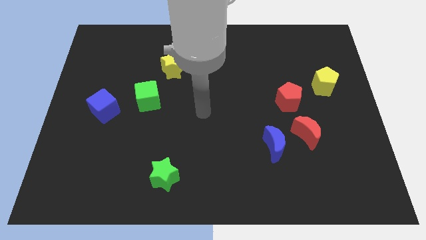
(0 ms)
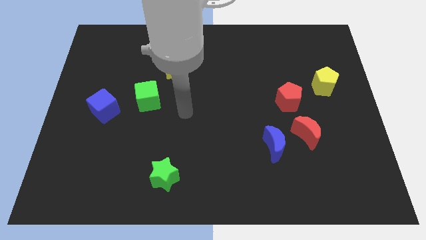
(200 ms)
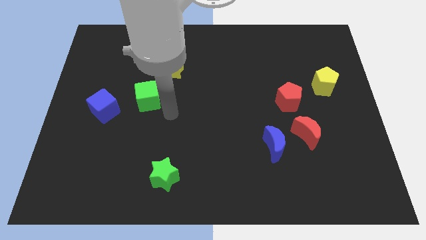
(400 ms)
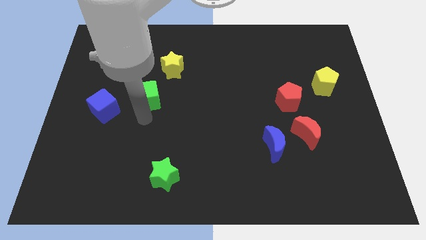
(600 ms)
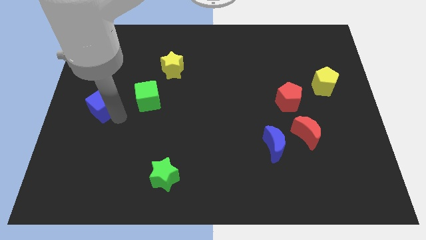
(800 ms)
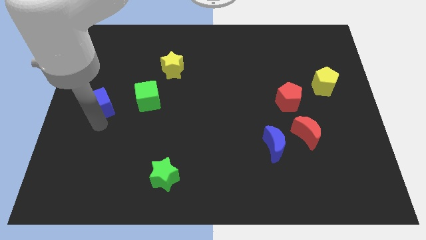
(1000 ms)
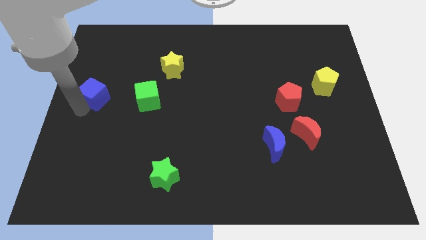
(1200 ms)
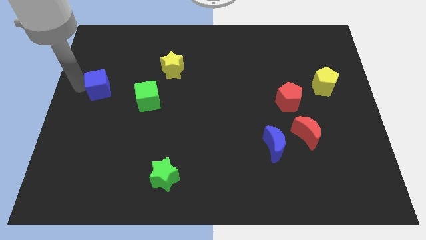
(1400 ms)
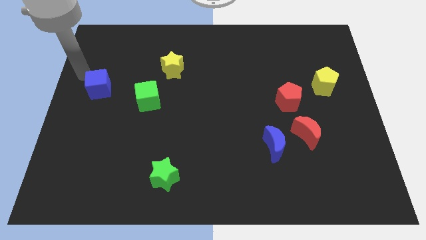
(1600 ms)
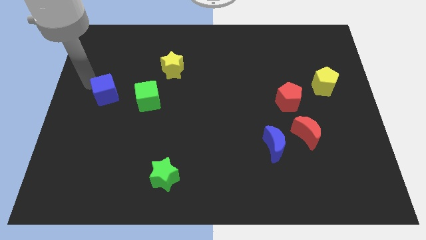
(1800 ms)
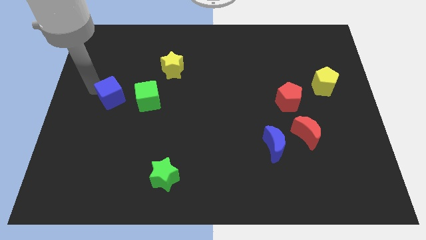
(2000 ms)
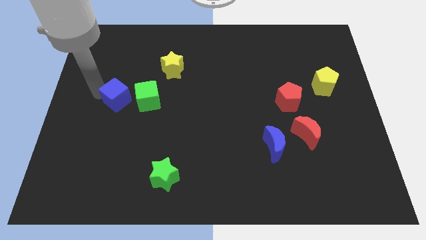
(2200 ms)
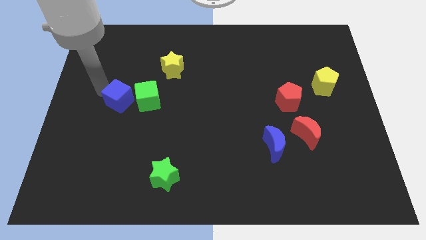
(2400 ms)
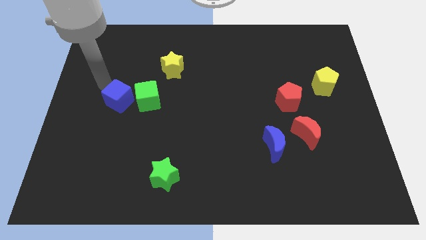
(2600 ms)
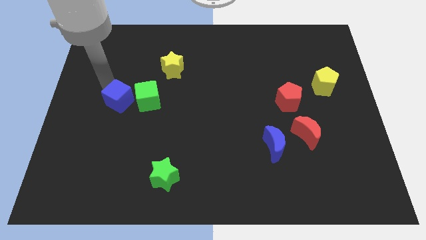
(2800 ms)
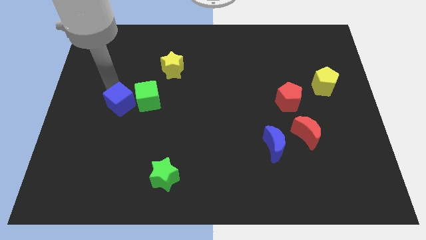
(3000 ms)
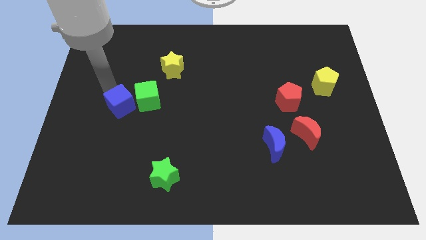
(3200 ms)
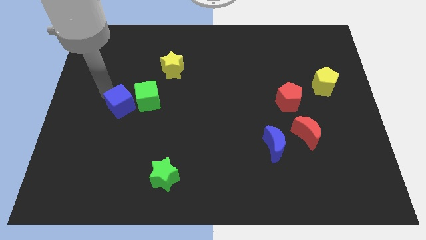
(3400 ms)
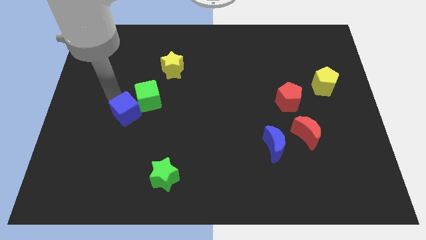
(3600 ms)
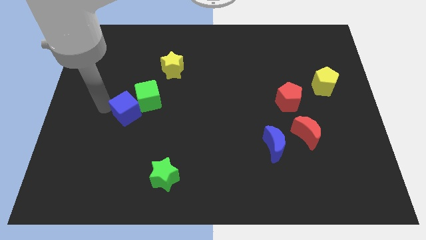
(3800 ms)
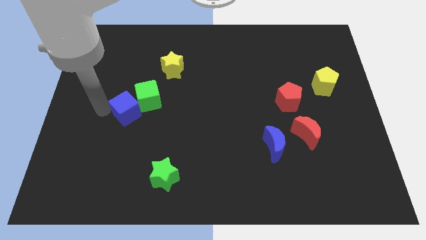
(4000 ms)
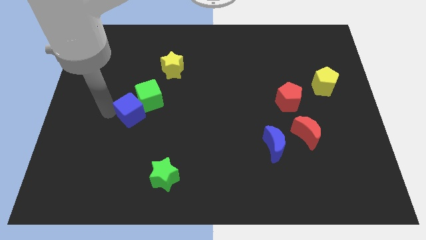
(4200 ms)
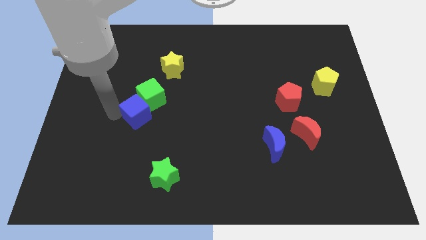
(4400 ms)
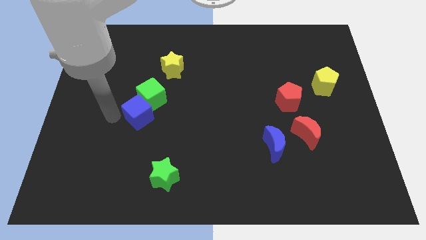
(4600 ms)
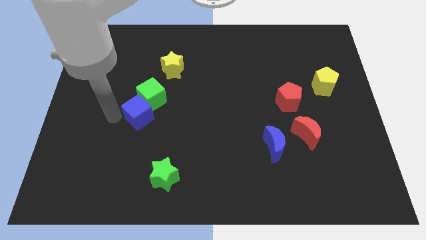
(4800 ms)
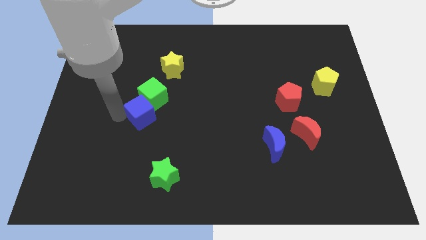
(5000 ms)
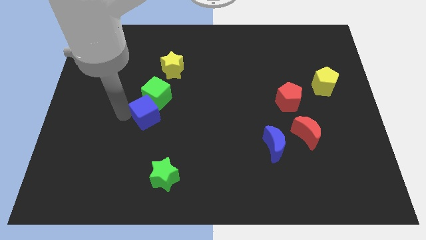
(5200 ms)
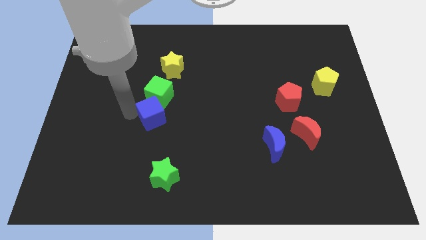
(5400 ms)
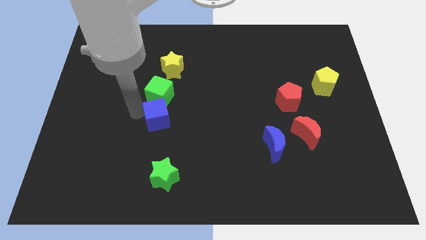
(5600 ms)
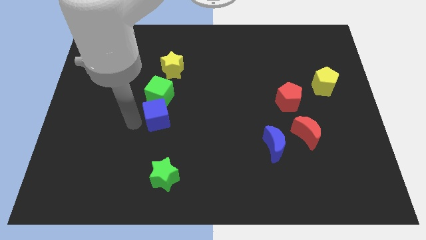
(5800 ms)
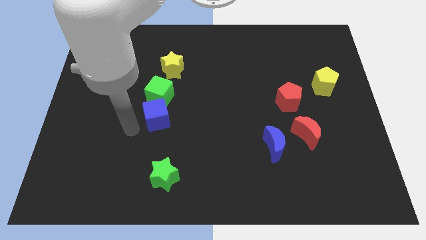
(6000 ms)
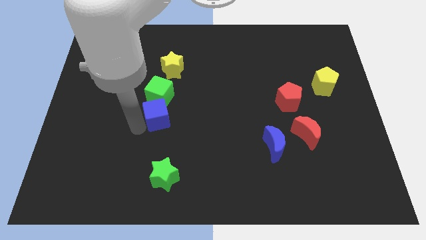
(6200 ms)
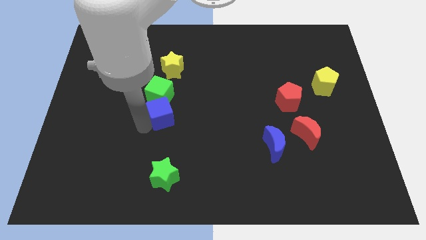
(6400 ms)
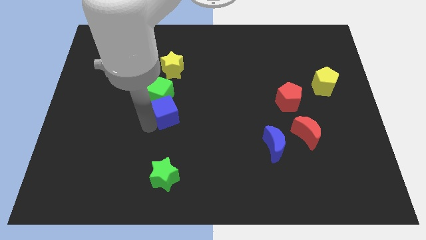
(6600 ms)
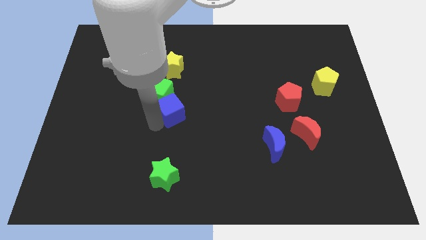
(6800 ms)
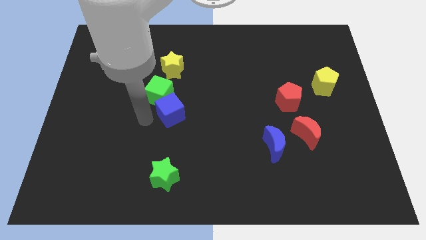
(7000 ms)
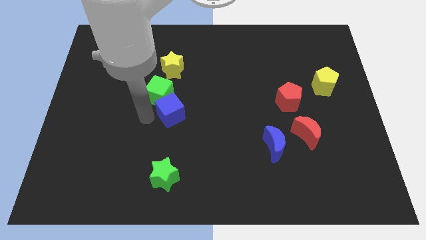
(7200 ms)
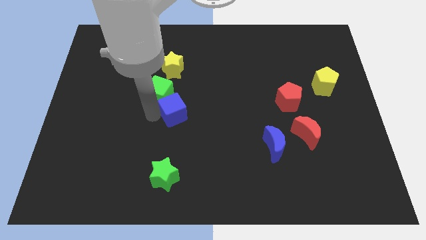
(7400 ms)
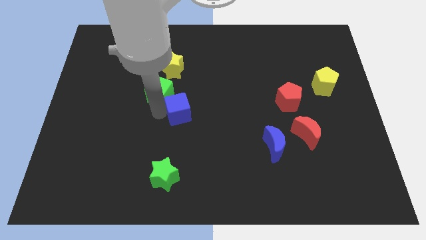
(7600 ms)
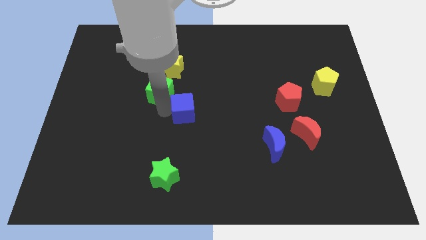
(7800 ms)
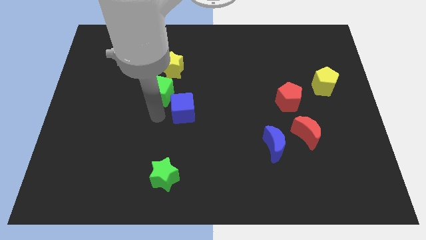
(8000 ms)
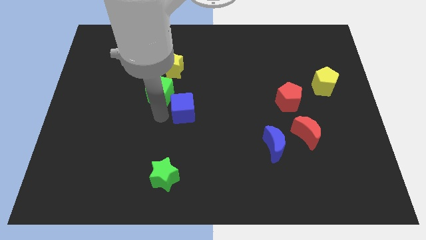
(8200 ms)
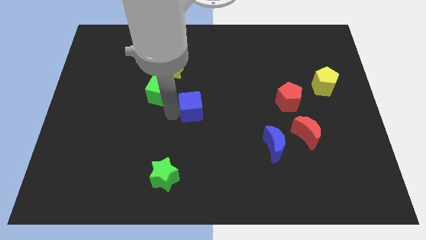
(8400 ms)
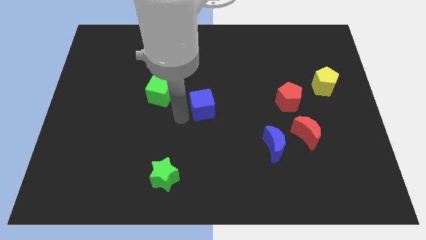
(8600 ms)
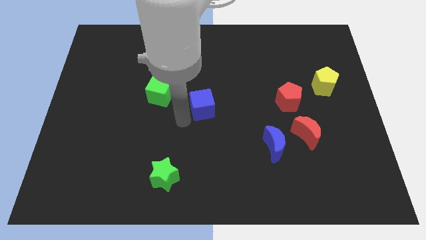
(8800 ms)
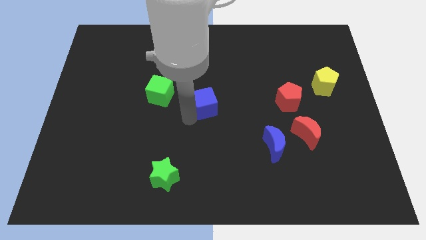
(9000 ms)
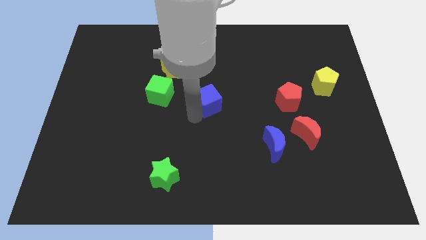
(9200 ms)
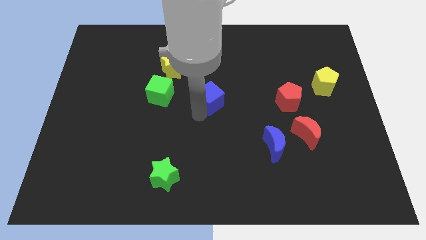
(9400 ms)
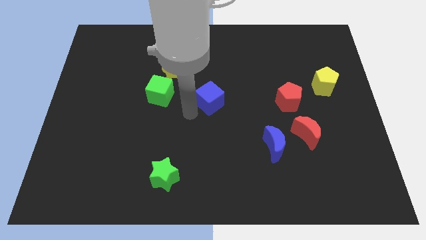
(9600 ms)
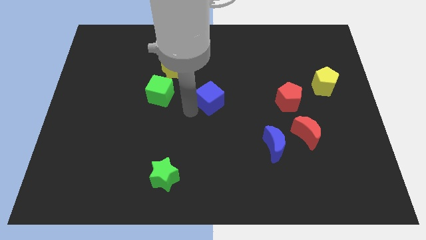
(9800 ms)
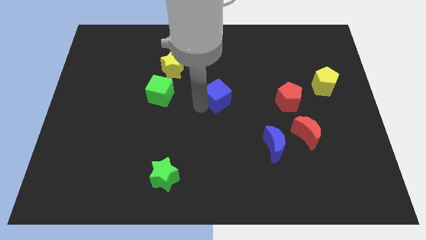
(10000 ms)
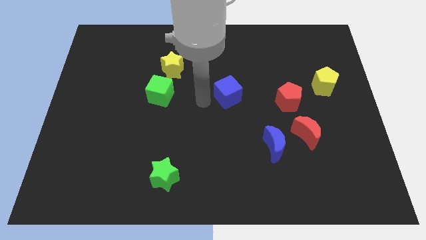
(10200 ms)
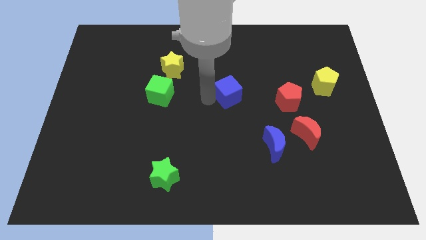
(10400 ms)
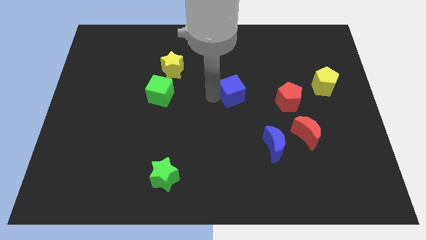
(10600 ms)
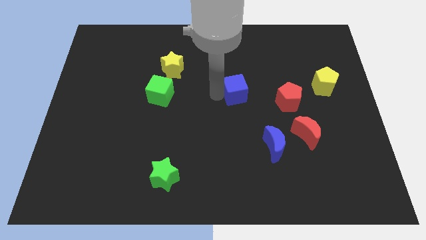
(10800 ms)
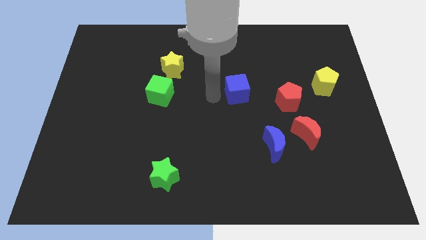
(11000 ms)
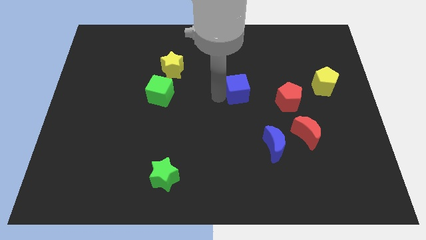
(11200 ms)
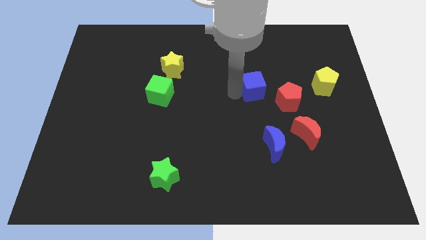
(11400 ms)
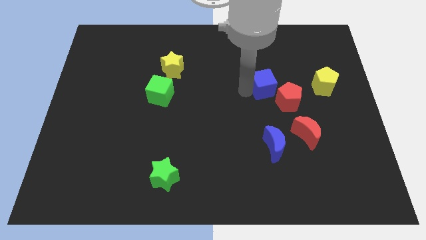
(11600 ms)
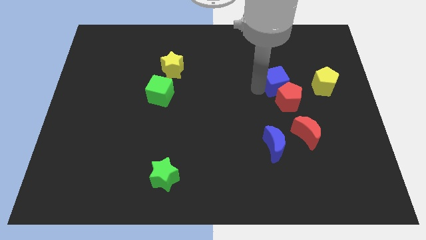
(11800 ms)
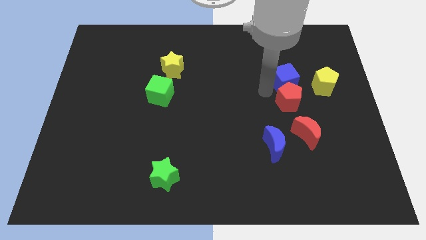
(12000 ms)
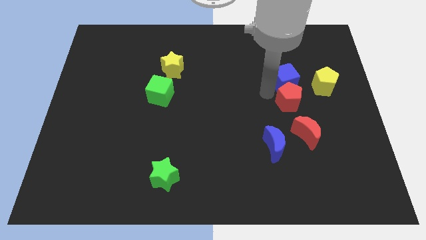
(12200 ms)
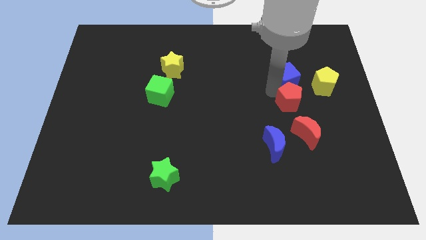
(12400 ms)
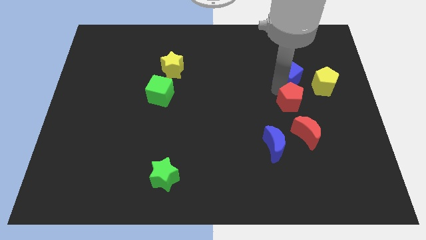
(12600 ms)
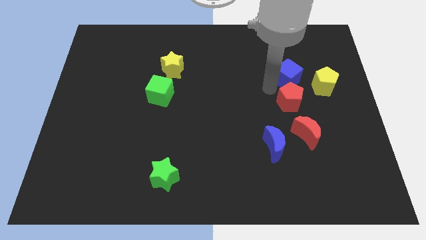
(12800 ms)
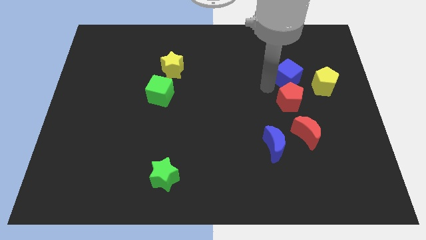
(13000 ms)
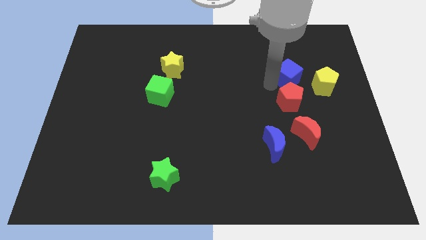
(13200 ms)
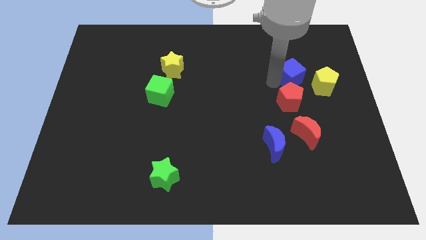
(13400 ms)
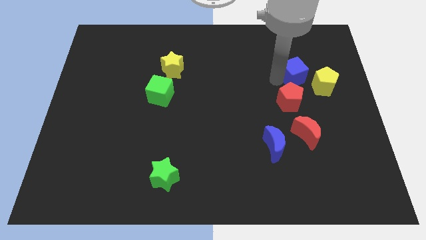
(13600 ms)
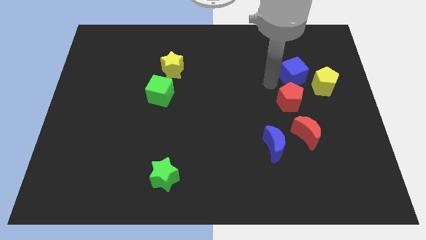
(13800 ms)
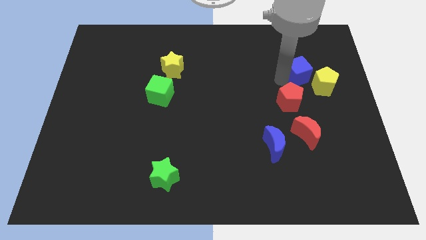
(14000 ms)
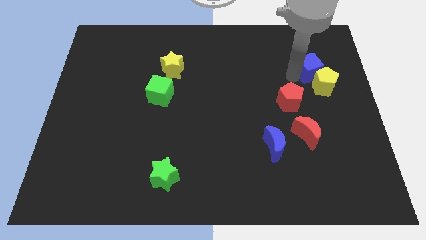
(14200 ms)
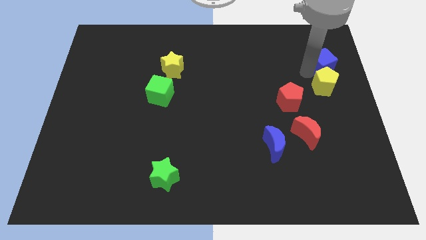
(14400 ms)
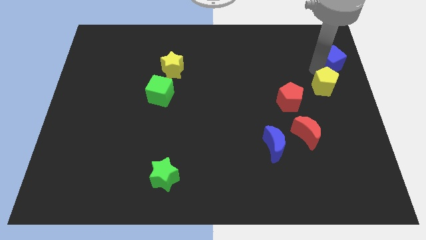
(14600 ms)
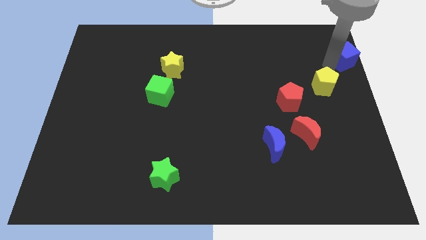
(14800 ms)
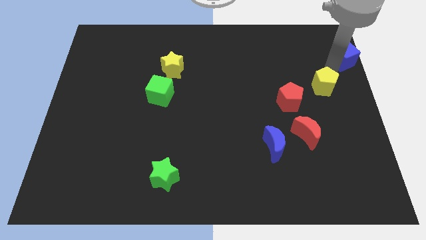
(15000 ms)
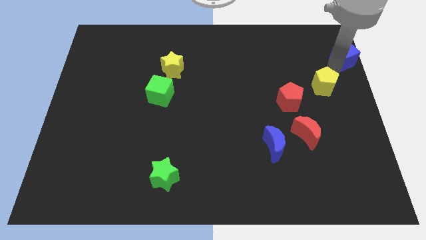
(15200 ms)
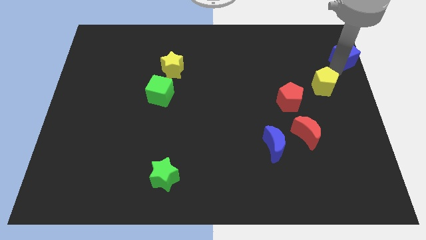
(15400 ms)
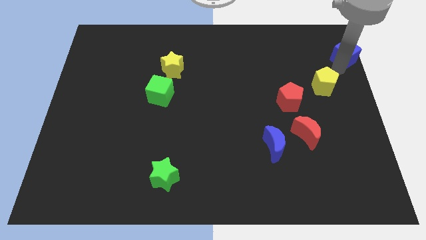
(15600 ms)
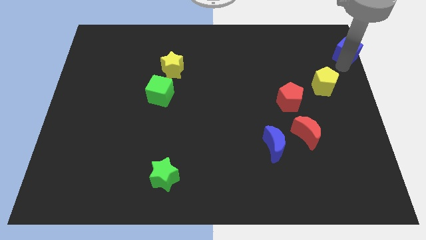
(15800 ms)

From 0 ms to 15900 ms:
slide the blue cube to the top right
